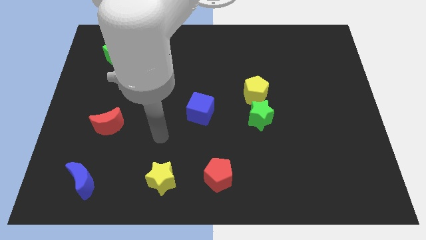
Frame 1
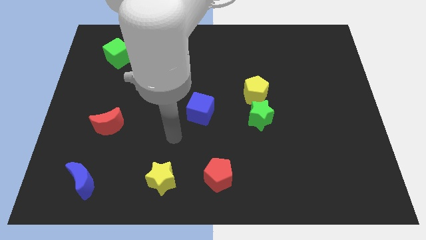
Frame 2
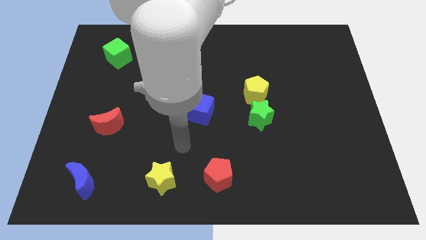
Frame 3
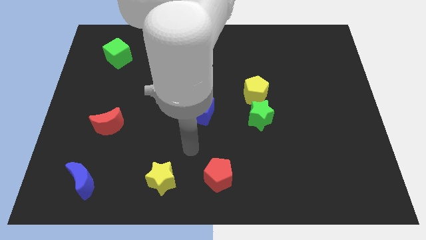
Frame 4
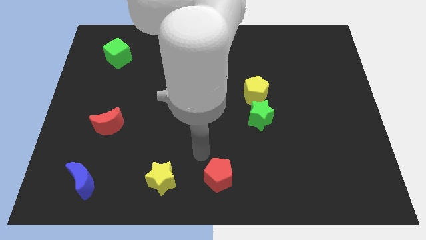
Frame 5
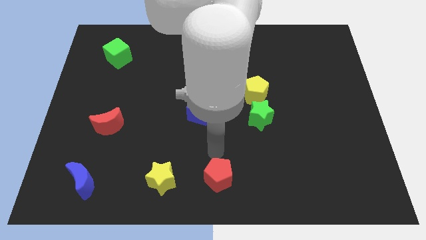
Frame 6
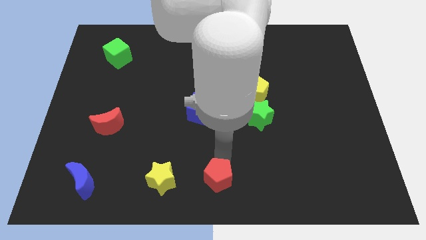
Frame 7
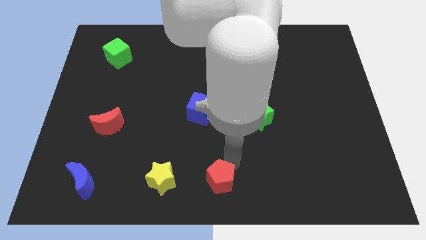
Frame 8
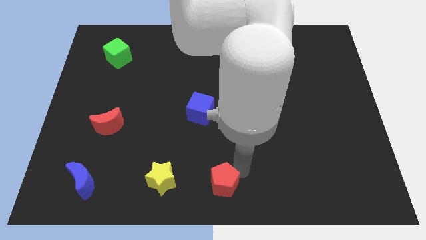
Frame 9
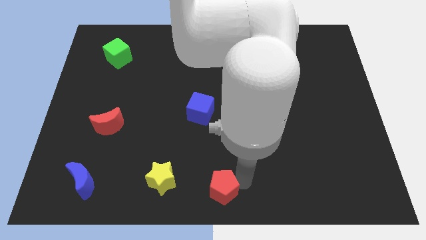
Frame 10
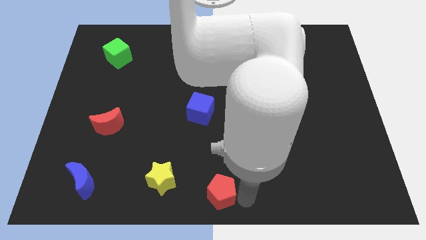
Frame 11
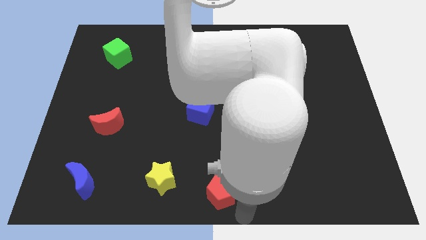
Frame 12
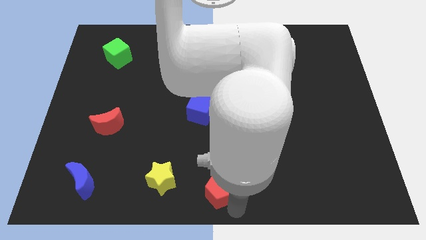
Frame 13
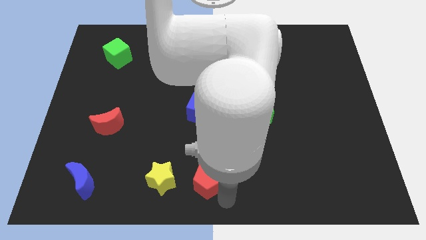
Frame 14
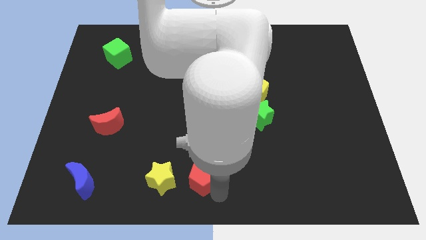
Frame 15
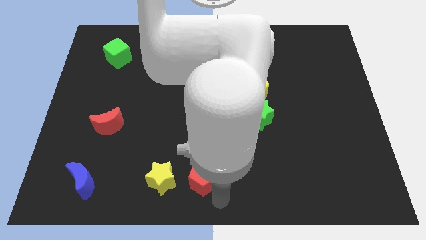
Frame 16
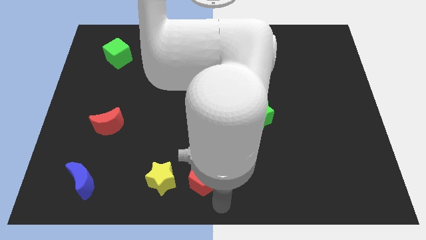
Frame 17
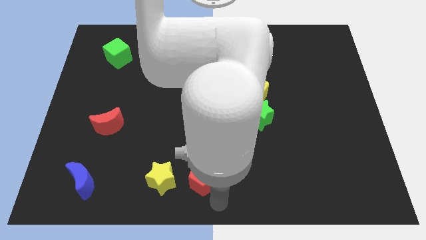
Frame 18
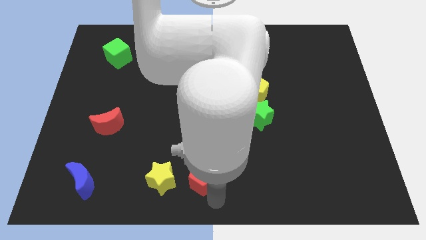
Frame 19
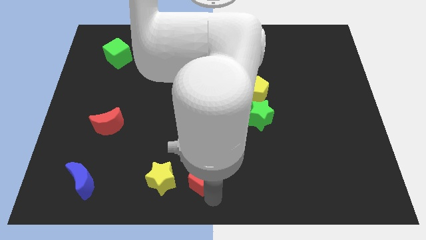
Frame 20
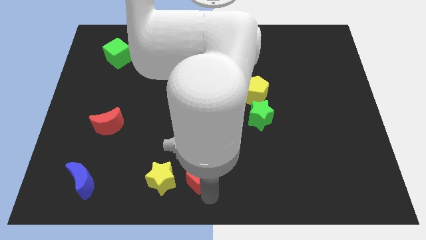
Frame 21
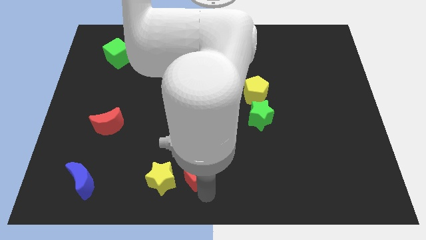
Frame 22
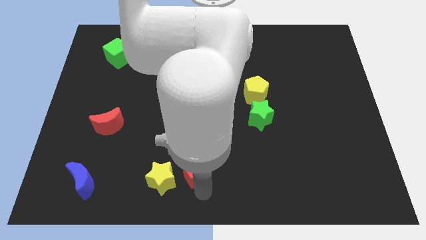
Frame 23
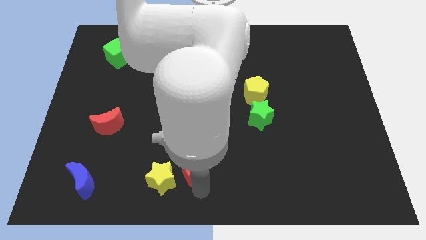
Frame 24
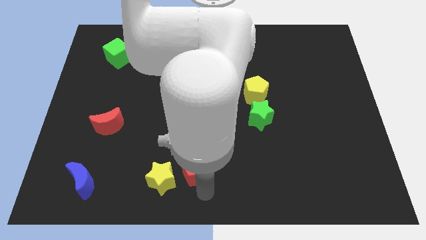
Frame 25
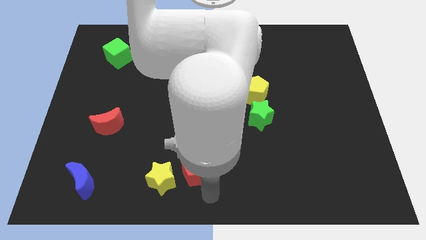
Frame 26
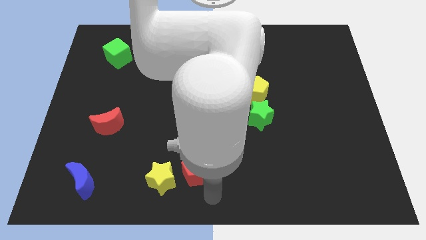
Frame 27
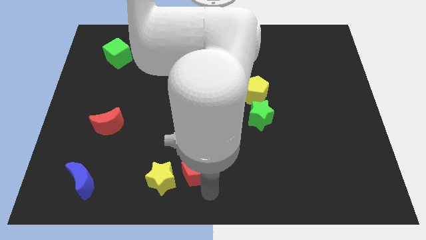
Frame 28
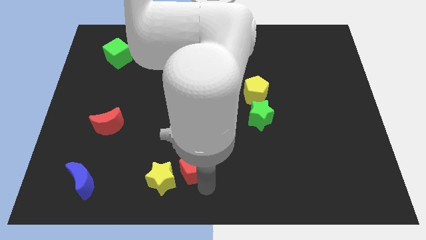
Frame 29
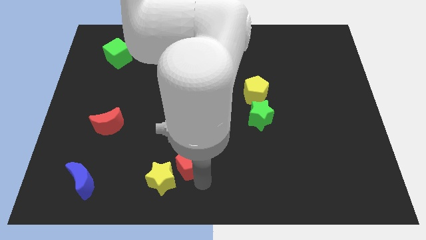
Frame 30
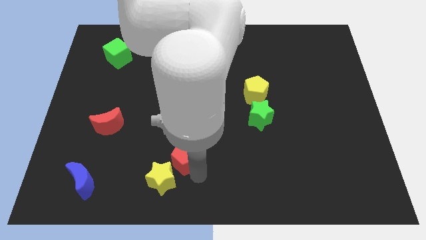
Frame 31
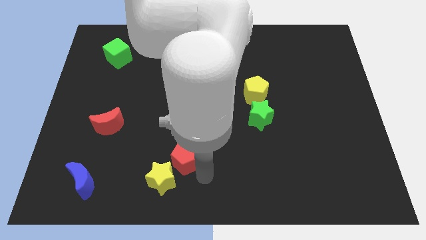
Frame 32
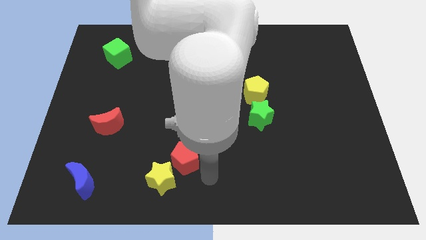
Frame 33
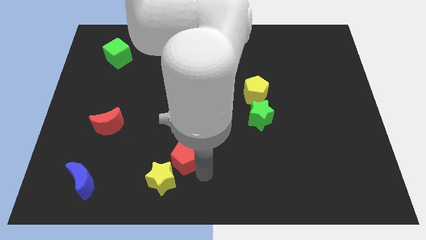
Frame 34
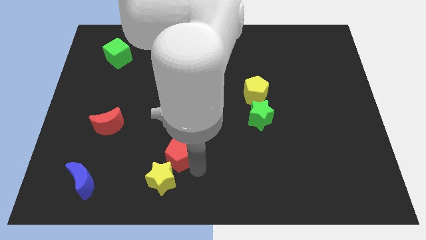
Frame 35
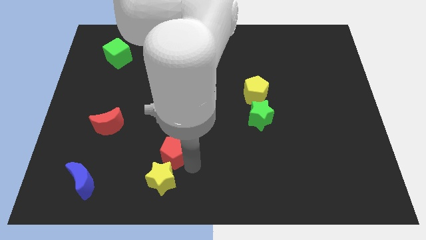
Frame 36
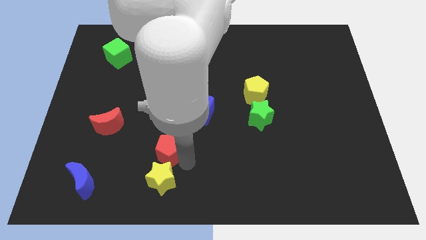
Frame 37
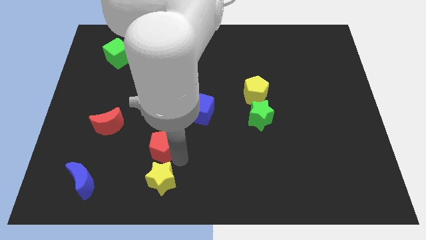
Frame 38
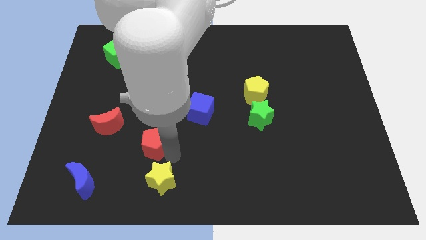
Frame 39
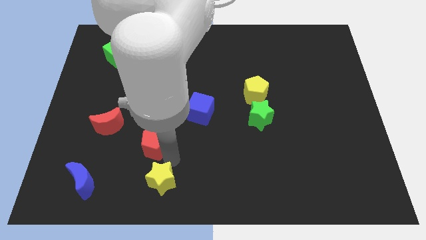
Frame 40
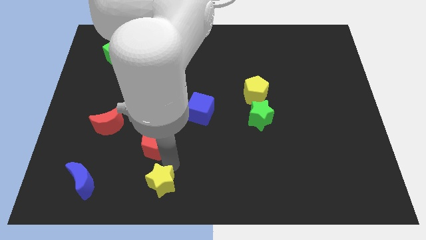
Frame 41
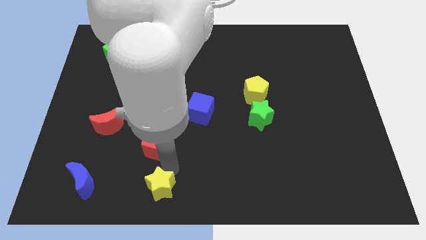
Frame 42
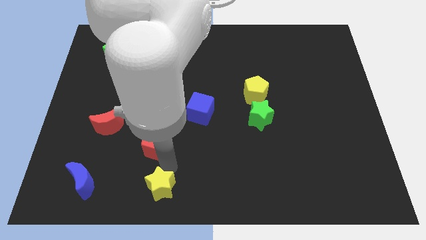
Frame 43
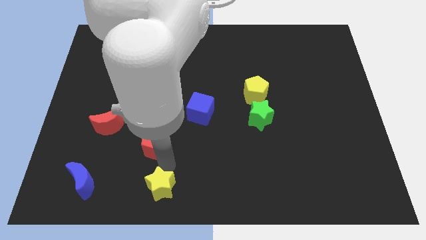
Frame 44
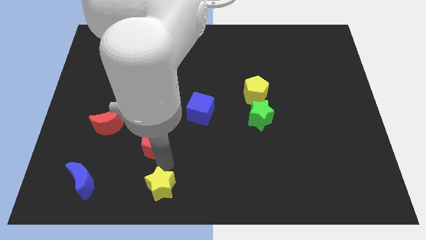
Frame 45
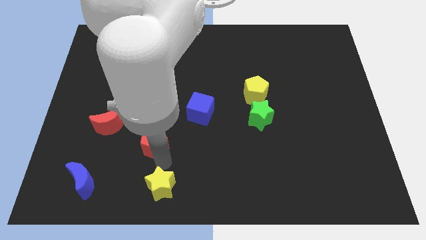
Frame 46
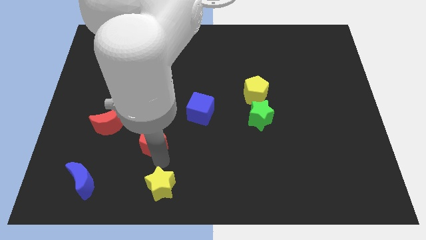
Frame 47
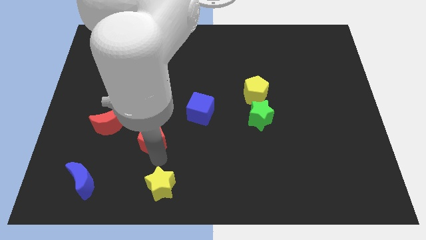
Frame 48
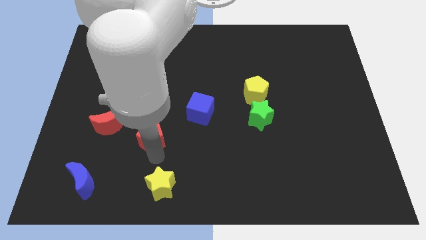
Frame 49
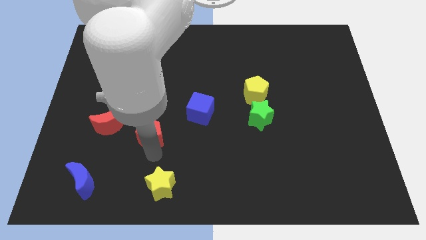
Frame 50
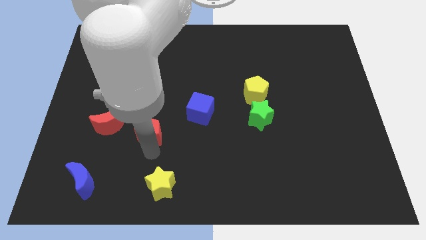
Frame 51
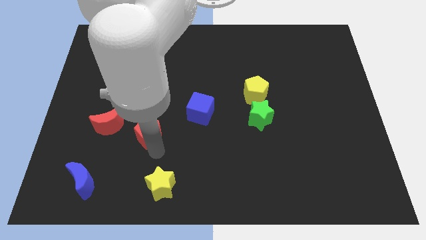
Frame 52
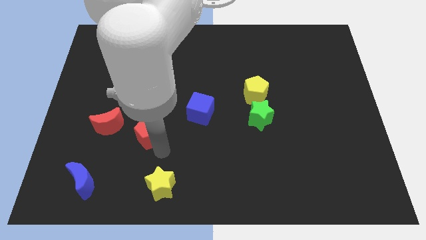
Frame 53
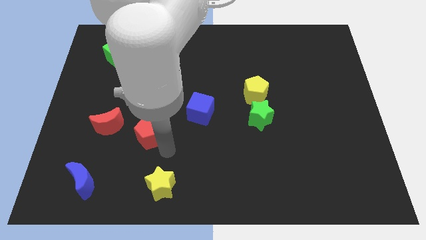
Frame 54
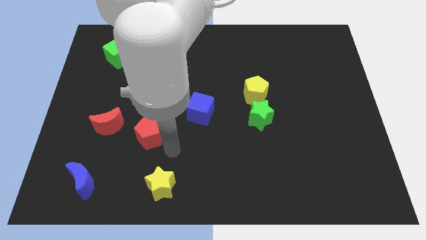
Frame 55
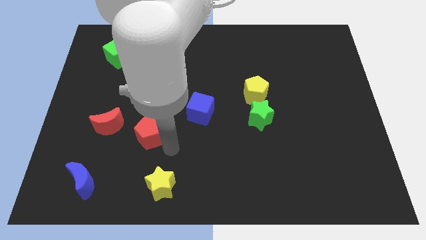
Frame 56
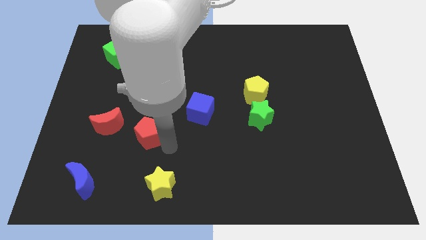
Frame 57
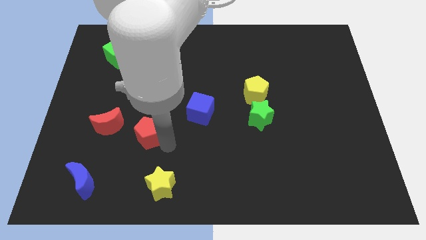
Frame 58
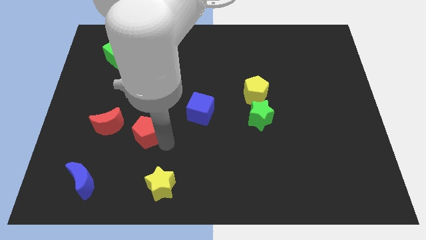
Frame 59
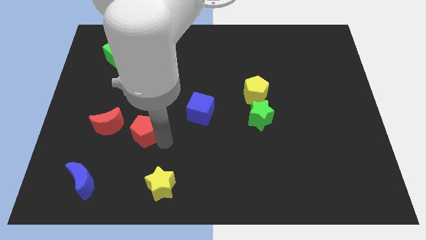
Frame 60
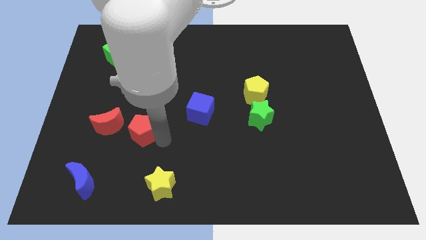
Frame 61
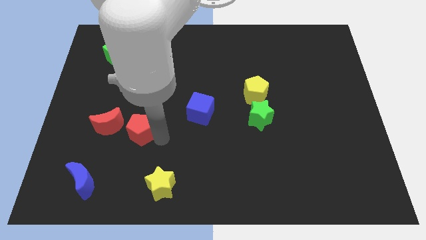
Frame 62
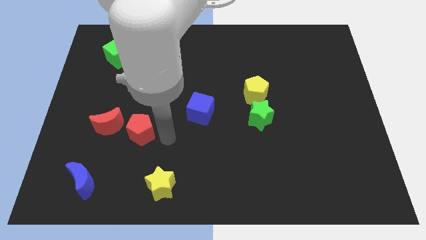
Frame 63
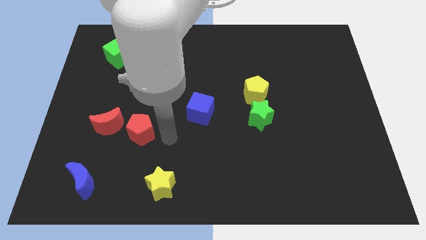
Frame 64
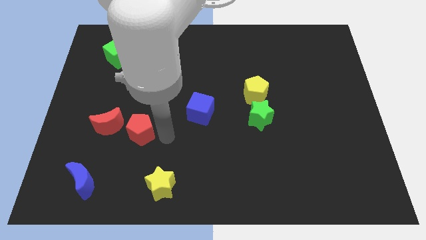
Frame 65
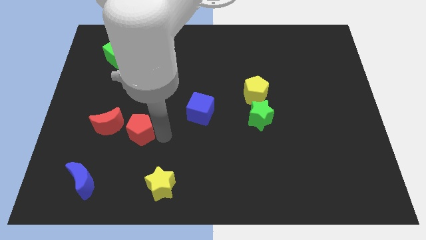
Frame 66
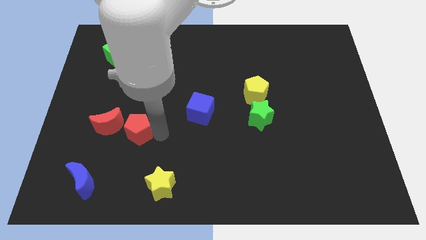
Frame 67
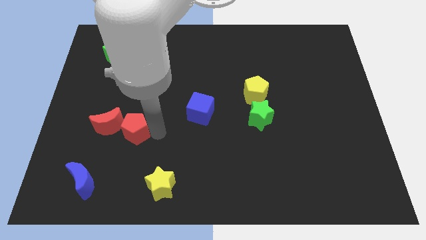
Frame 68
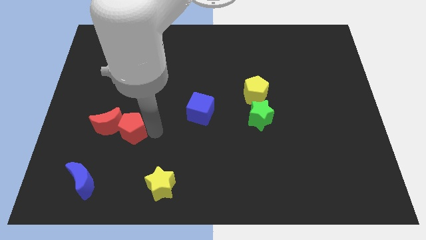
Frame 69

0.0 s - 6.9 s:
slide the red pentagon next to the red moon
